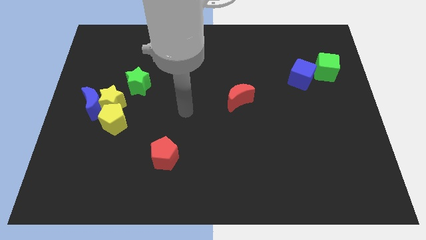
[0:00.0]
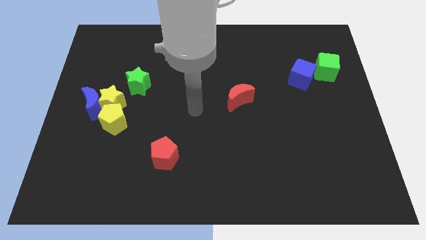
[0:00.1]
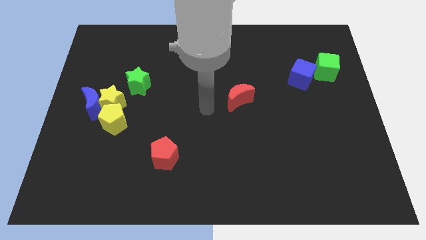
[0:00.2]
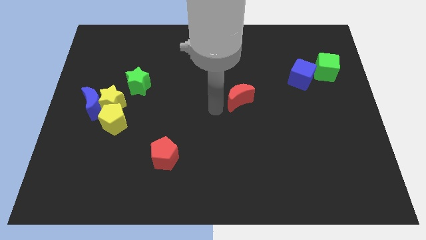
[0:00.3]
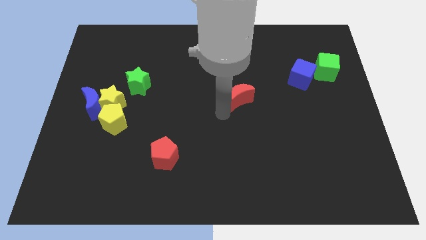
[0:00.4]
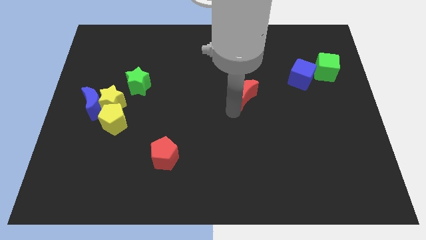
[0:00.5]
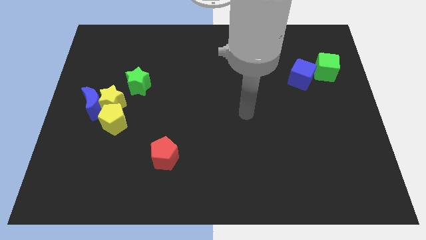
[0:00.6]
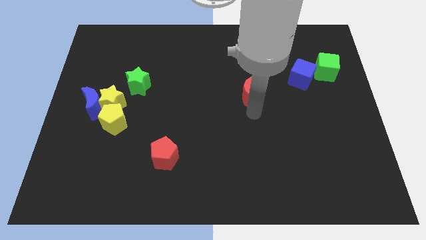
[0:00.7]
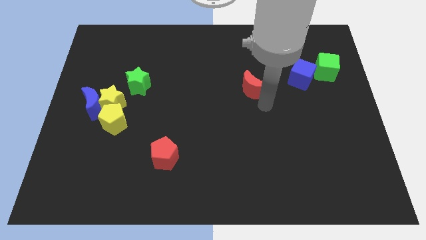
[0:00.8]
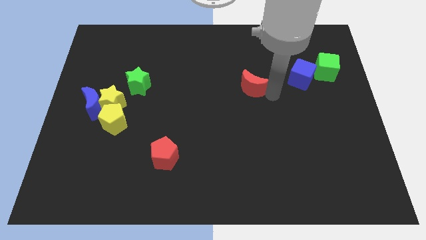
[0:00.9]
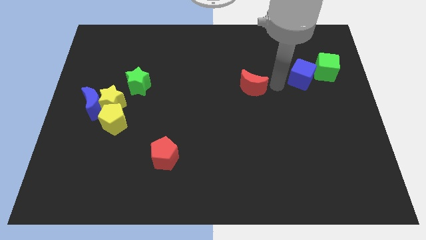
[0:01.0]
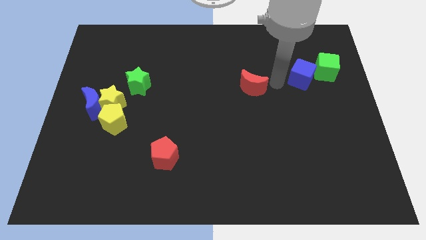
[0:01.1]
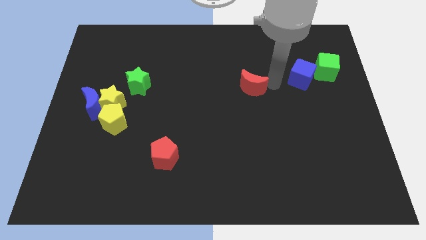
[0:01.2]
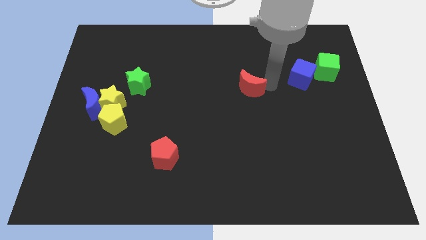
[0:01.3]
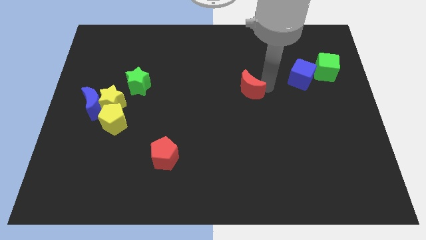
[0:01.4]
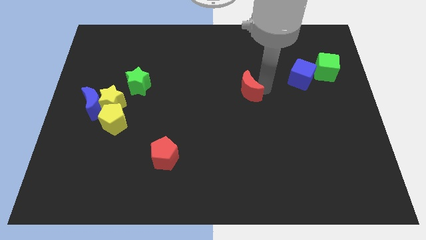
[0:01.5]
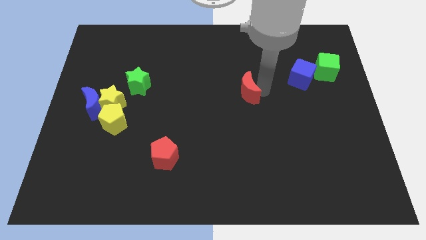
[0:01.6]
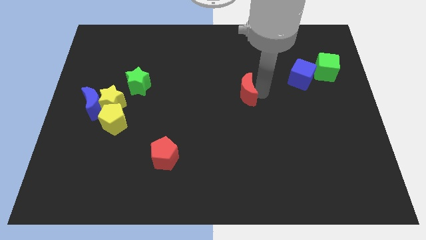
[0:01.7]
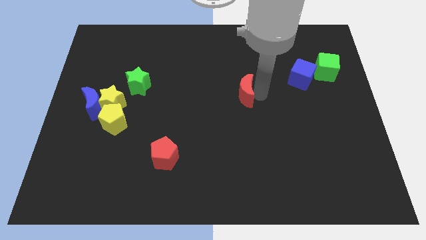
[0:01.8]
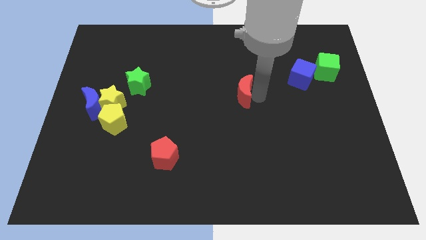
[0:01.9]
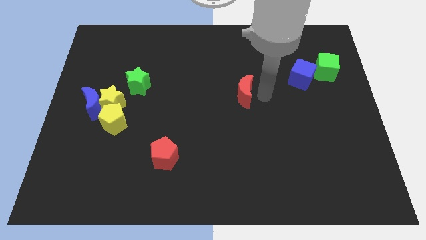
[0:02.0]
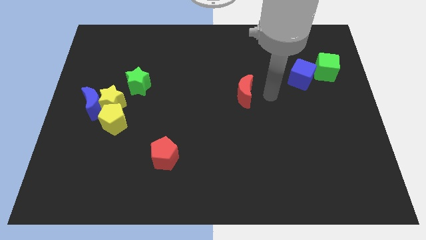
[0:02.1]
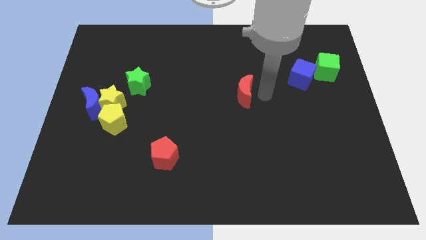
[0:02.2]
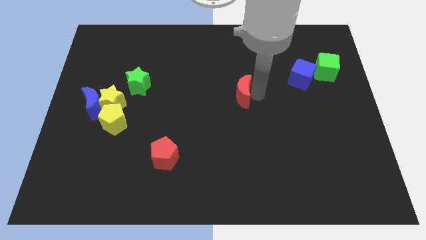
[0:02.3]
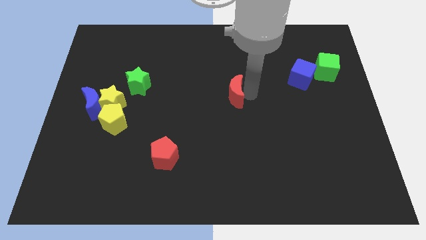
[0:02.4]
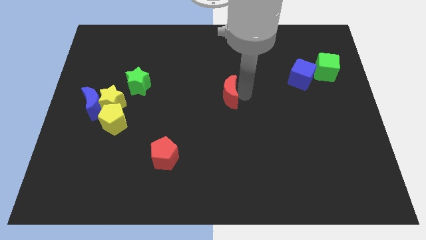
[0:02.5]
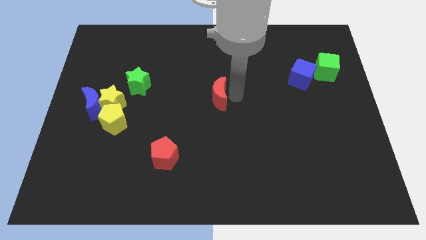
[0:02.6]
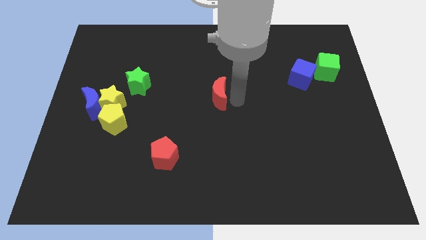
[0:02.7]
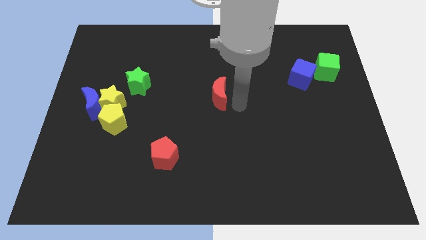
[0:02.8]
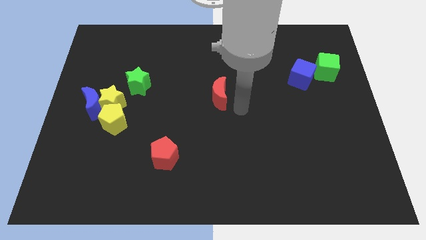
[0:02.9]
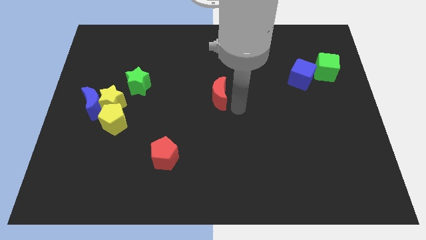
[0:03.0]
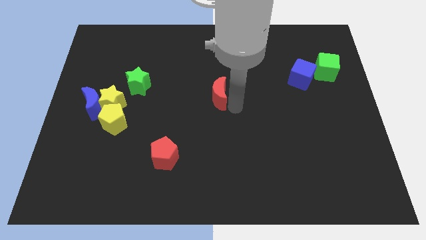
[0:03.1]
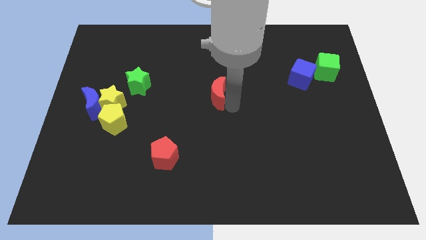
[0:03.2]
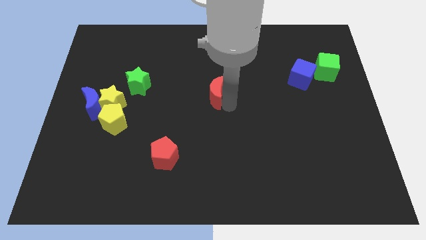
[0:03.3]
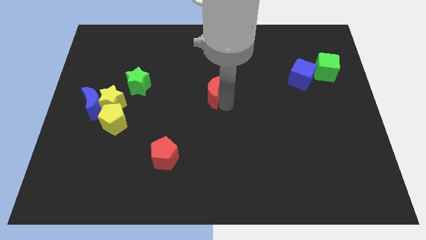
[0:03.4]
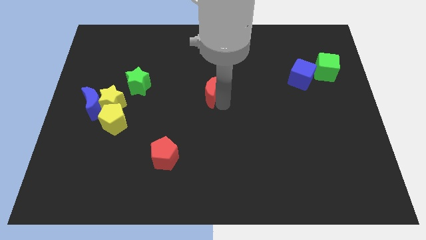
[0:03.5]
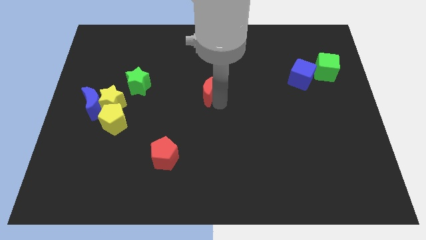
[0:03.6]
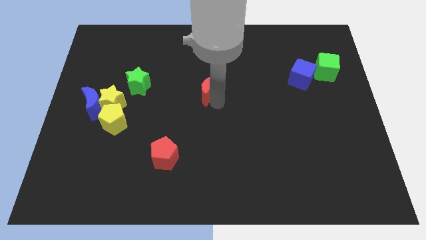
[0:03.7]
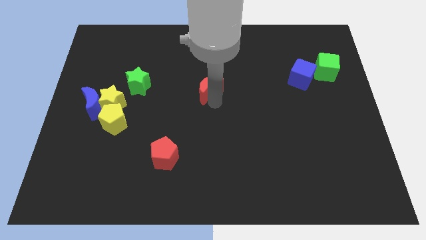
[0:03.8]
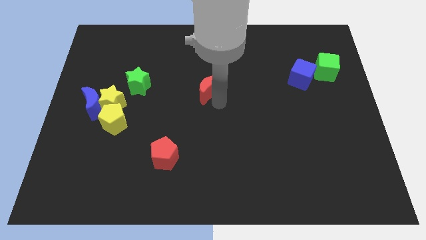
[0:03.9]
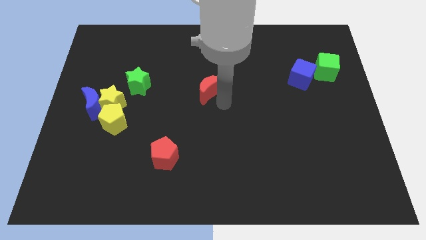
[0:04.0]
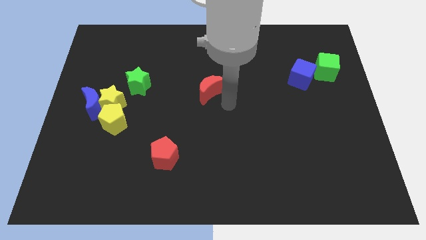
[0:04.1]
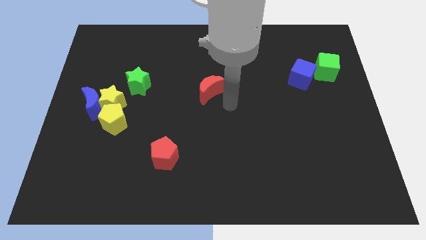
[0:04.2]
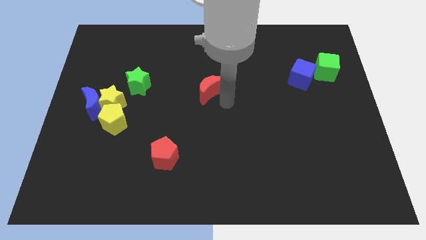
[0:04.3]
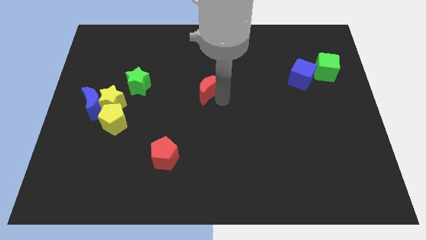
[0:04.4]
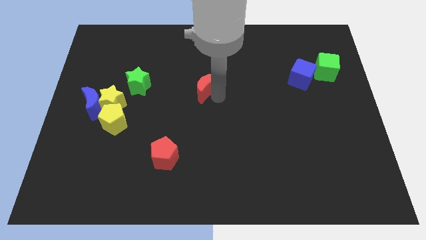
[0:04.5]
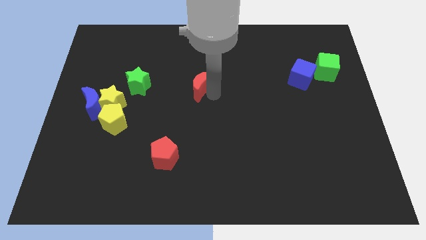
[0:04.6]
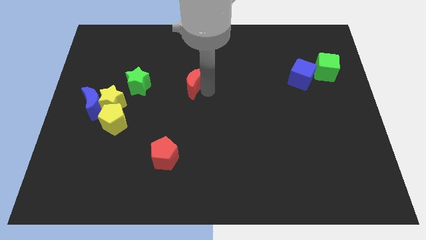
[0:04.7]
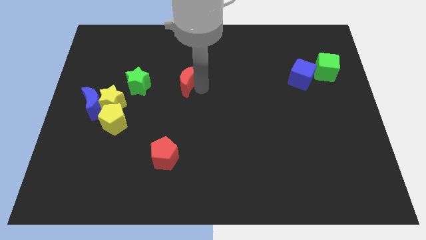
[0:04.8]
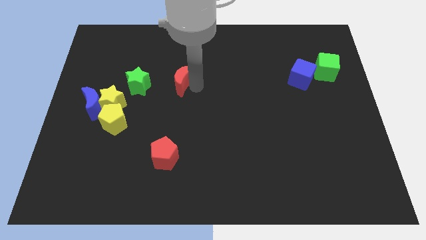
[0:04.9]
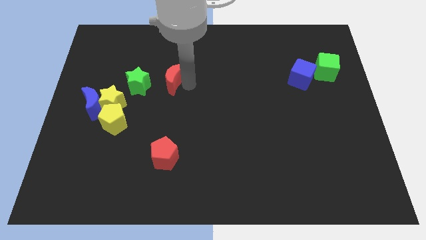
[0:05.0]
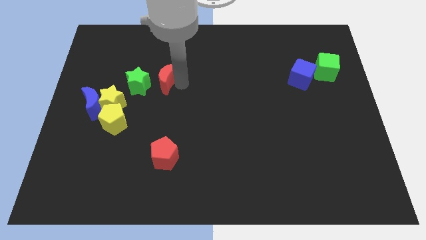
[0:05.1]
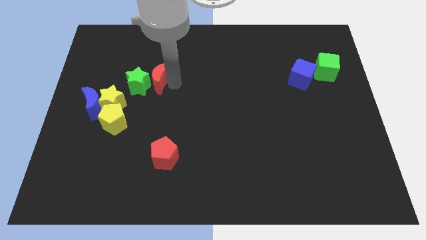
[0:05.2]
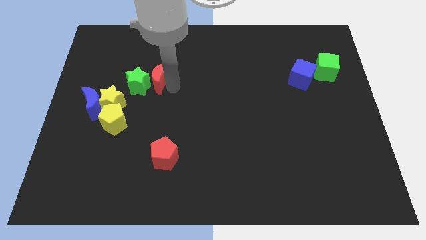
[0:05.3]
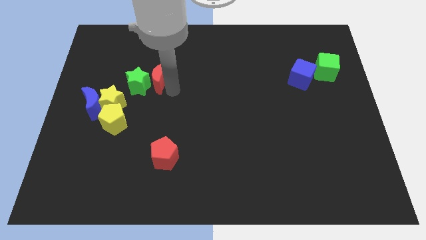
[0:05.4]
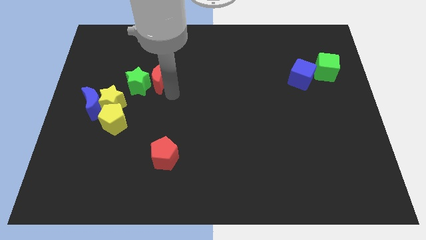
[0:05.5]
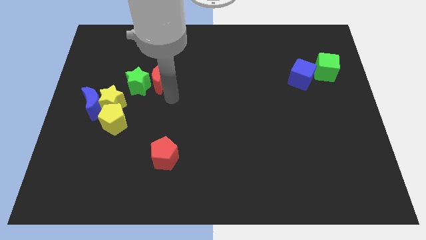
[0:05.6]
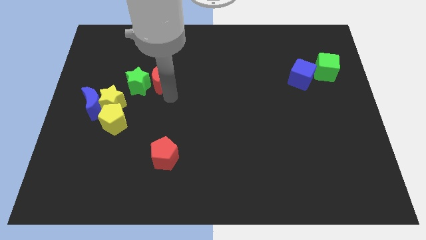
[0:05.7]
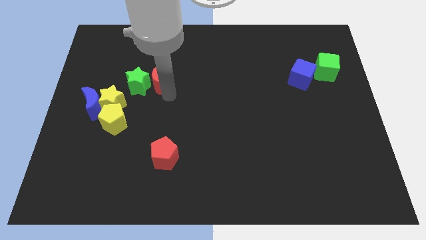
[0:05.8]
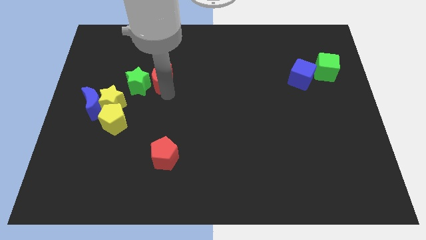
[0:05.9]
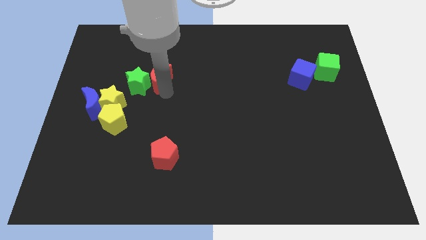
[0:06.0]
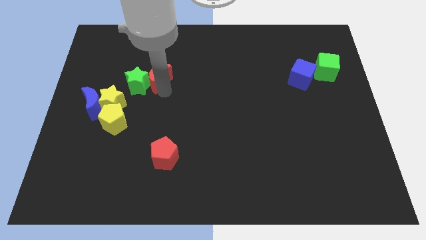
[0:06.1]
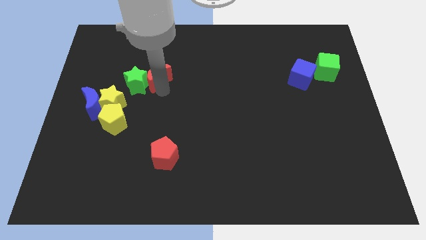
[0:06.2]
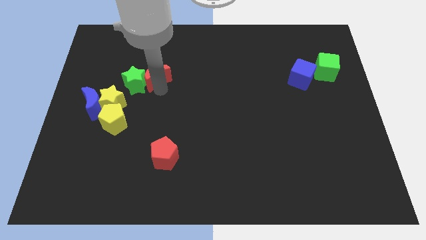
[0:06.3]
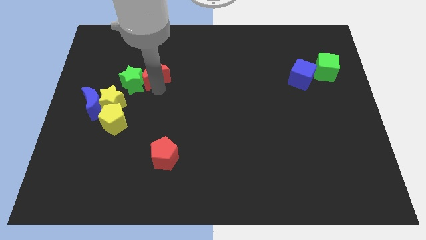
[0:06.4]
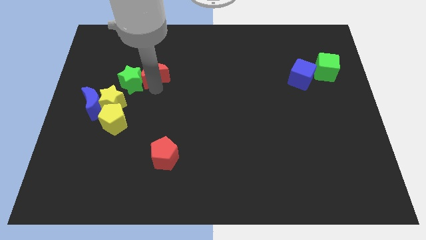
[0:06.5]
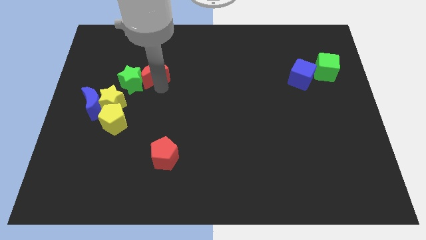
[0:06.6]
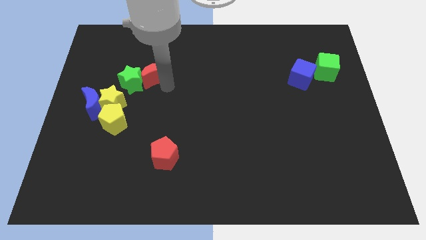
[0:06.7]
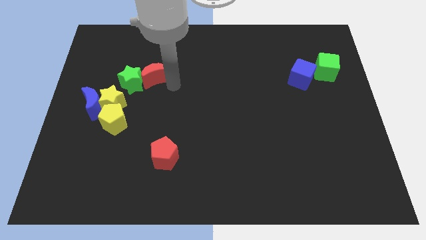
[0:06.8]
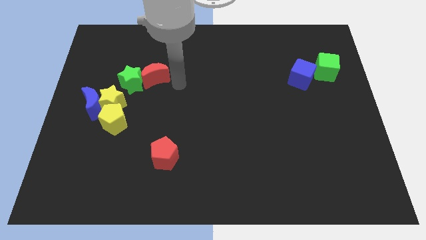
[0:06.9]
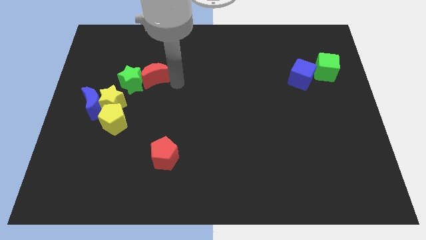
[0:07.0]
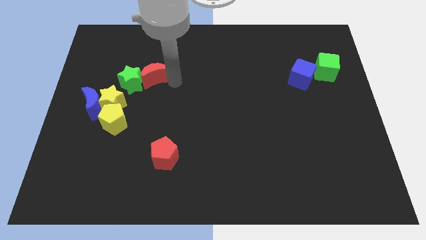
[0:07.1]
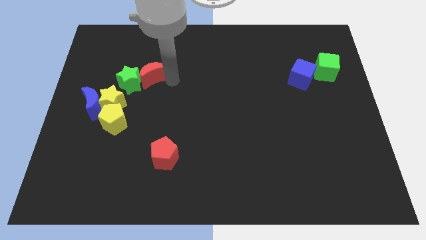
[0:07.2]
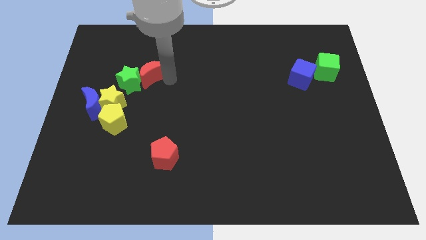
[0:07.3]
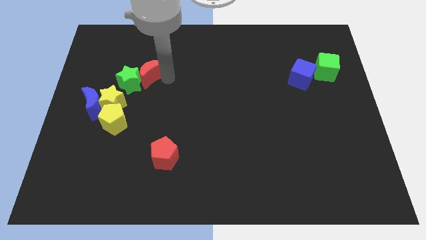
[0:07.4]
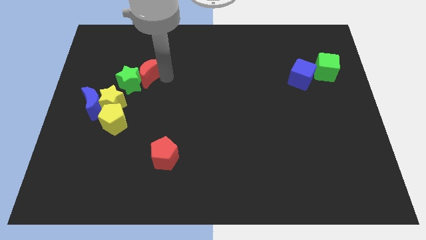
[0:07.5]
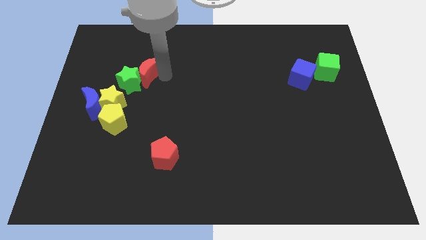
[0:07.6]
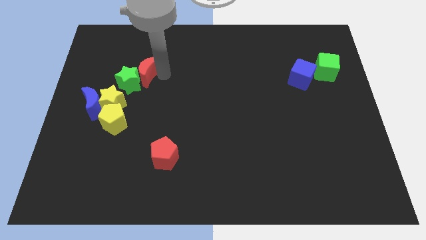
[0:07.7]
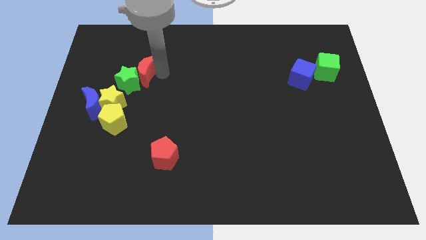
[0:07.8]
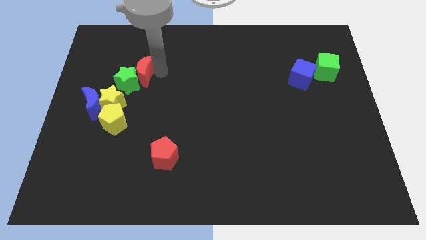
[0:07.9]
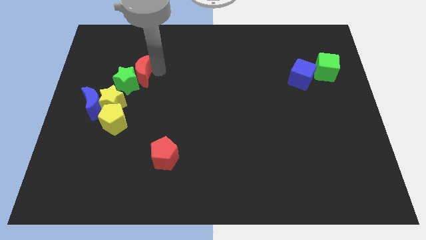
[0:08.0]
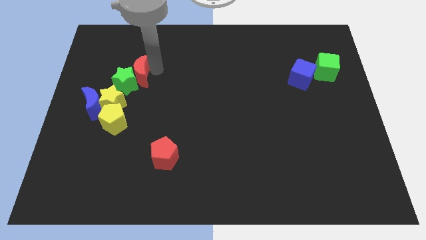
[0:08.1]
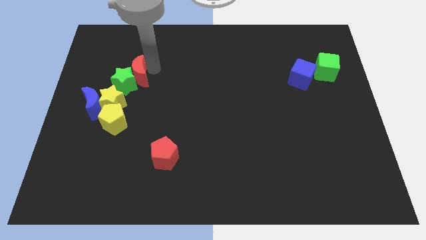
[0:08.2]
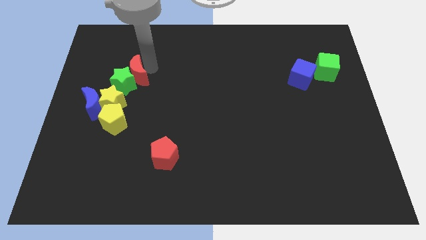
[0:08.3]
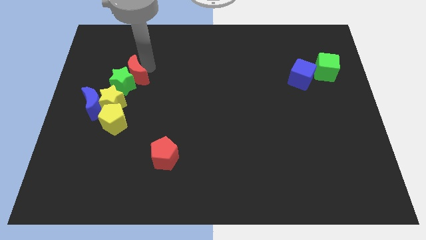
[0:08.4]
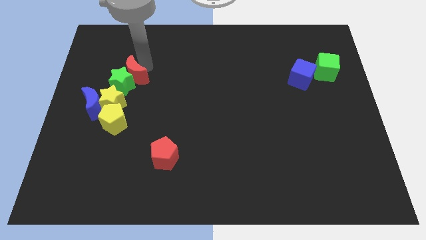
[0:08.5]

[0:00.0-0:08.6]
put the red moon diagonally up and to the right of the blue moon

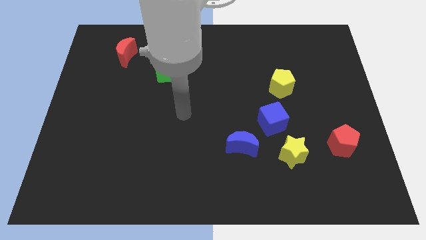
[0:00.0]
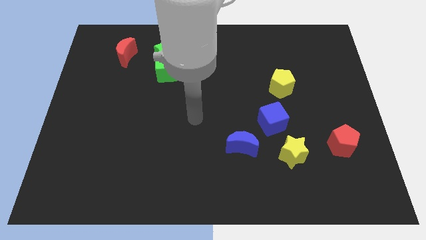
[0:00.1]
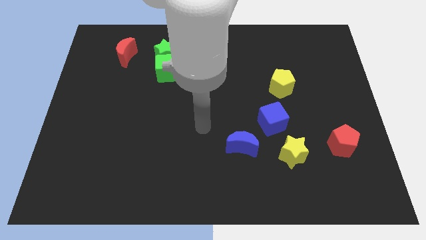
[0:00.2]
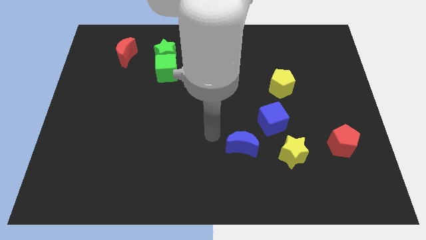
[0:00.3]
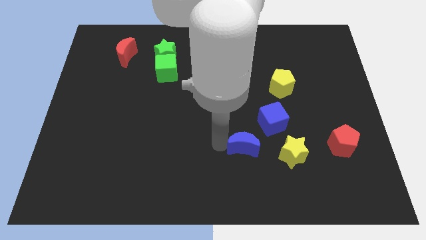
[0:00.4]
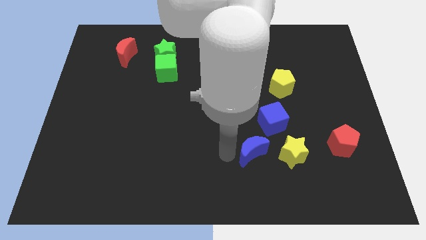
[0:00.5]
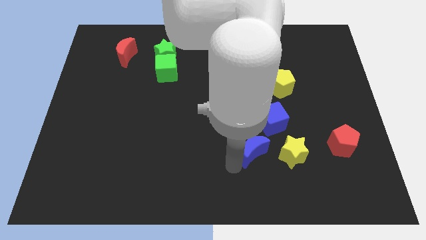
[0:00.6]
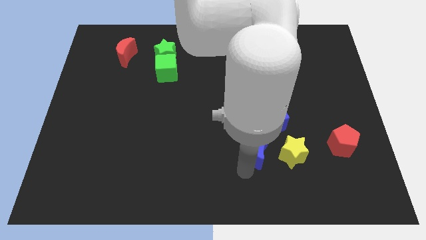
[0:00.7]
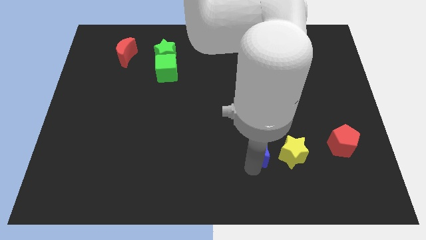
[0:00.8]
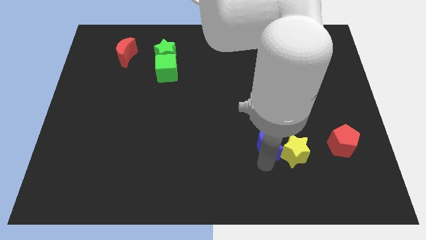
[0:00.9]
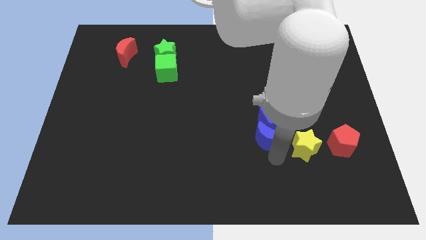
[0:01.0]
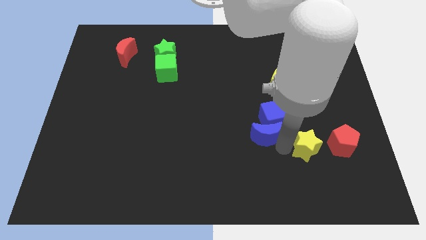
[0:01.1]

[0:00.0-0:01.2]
slide the blue cube to the bottom left of the yellow pentagon
